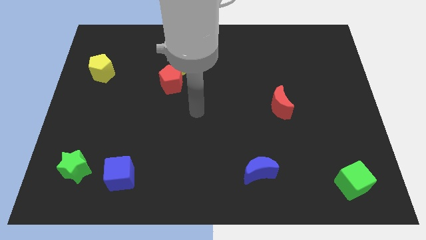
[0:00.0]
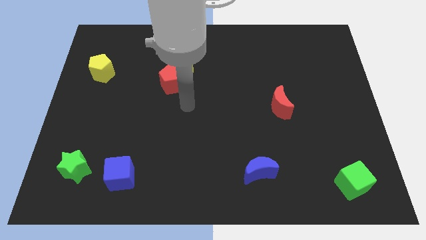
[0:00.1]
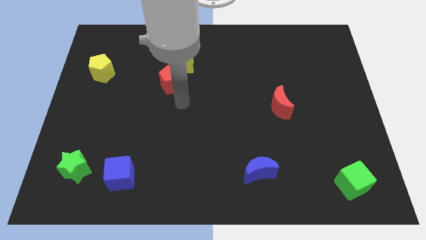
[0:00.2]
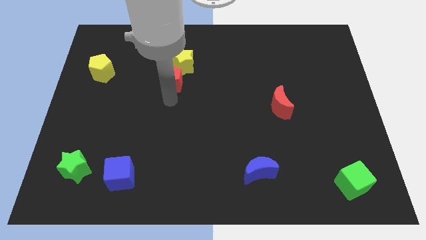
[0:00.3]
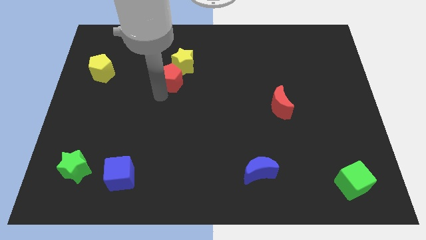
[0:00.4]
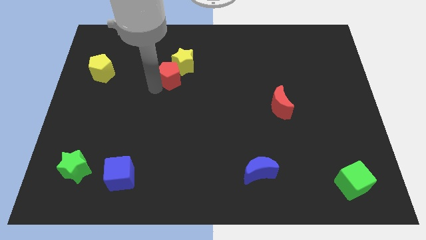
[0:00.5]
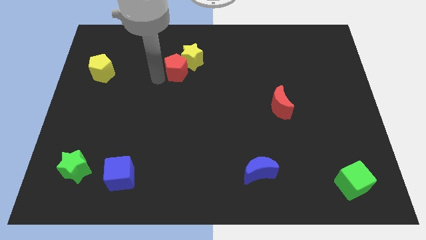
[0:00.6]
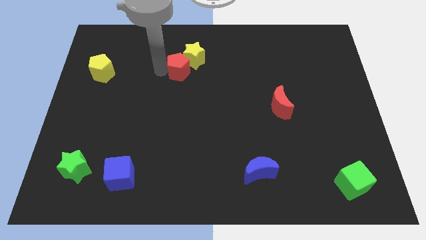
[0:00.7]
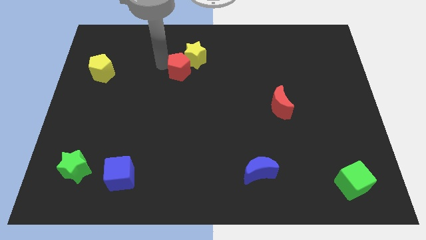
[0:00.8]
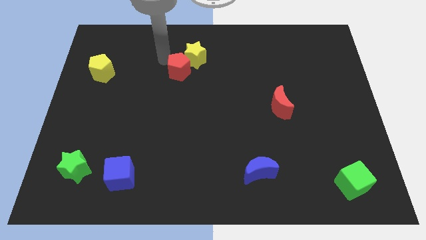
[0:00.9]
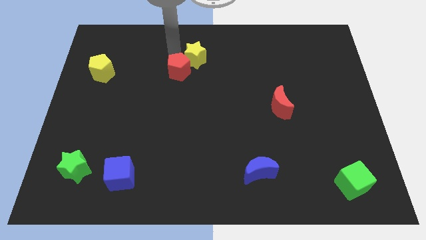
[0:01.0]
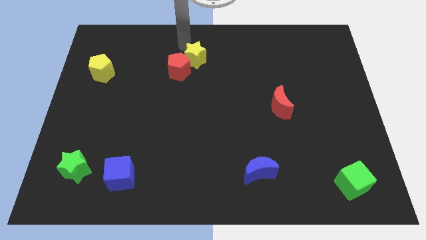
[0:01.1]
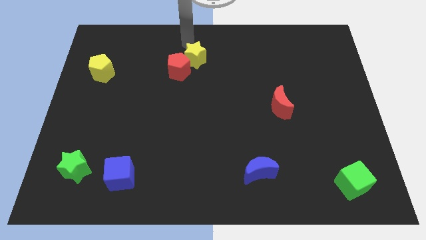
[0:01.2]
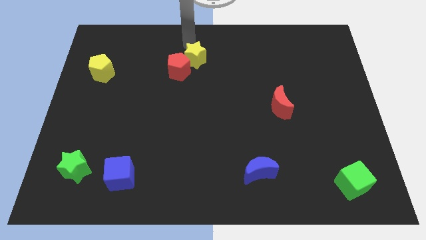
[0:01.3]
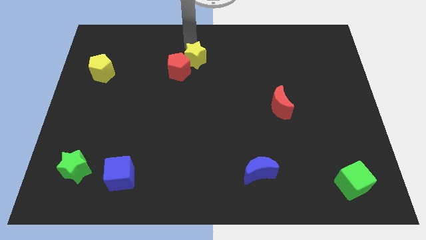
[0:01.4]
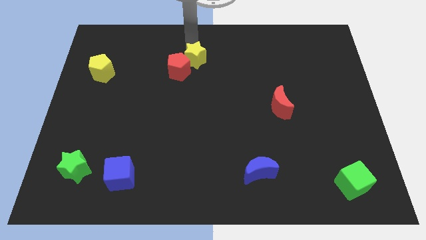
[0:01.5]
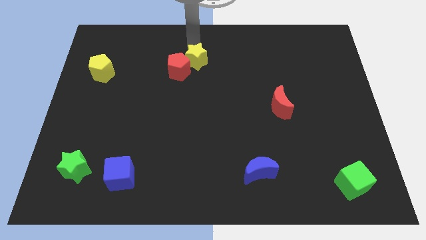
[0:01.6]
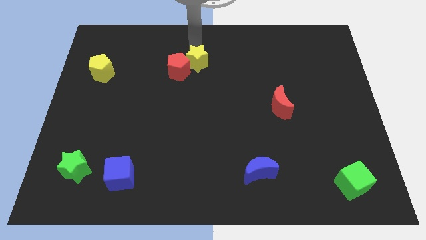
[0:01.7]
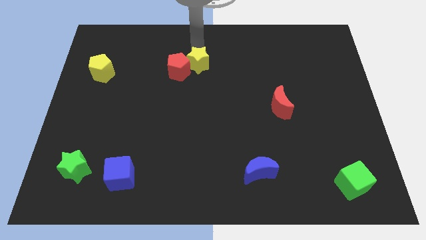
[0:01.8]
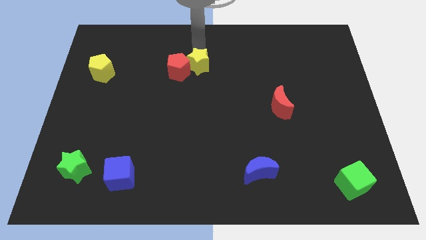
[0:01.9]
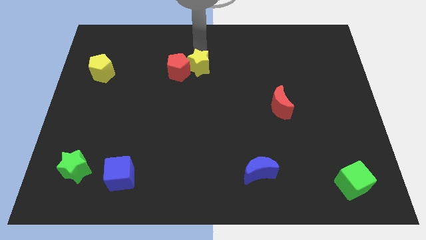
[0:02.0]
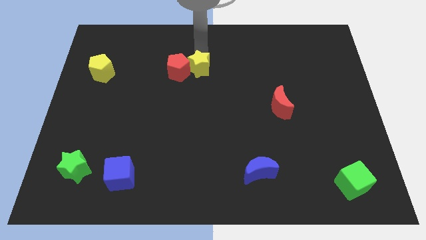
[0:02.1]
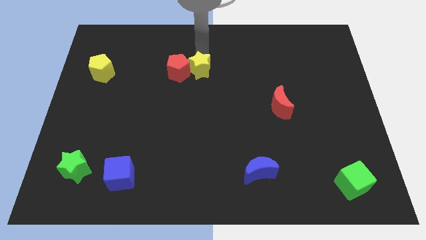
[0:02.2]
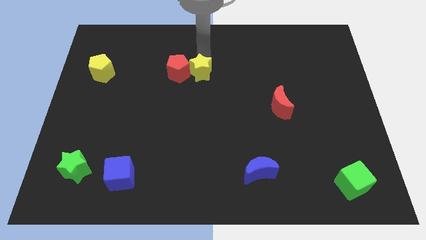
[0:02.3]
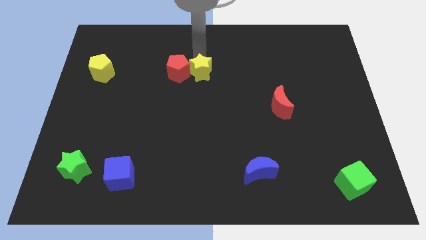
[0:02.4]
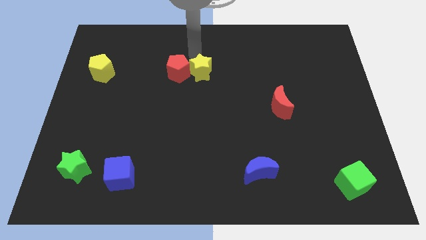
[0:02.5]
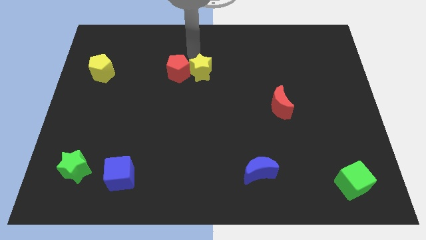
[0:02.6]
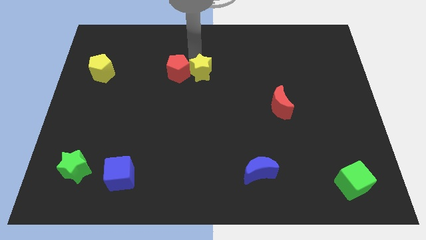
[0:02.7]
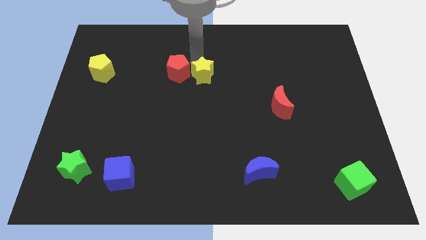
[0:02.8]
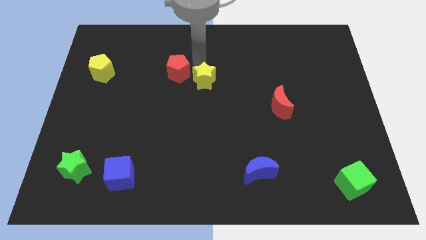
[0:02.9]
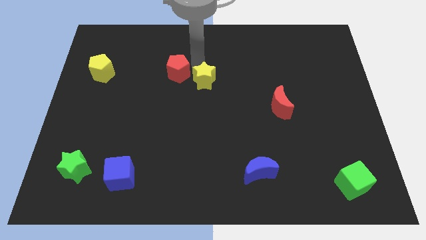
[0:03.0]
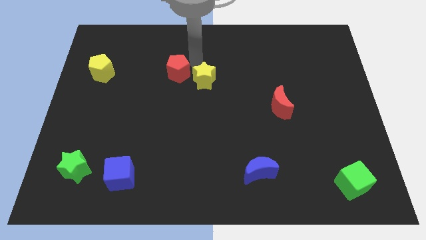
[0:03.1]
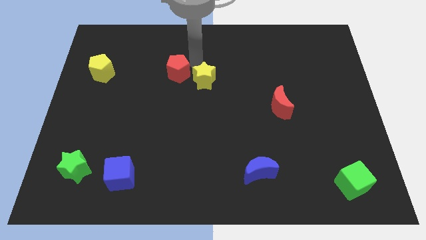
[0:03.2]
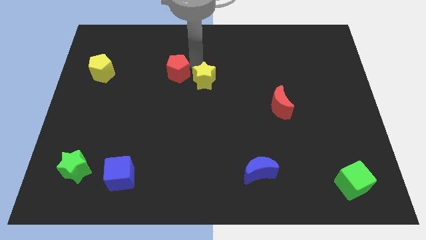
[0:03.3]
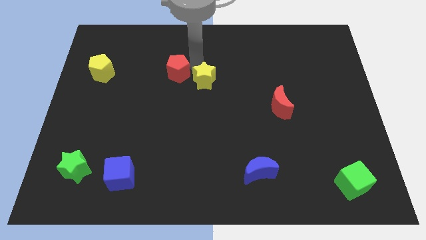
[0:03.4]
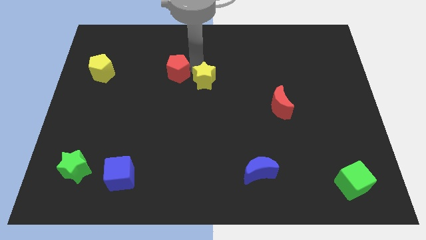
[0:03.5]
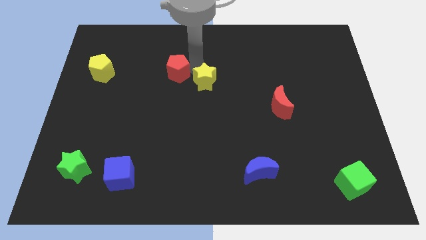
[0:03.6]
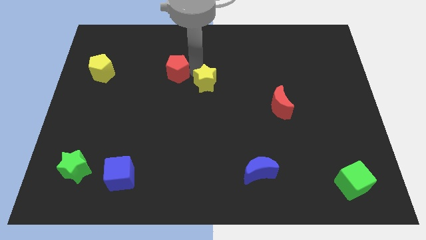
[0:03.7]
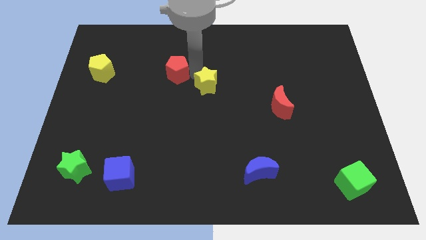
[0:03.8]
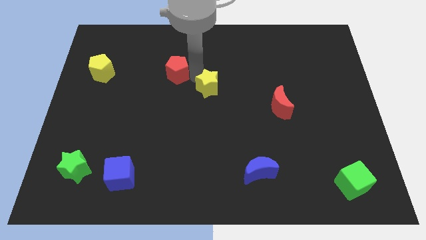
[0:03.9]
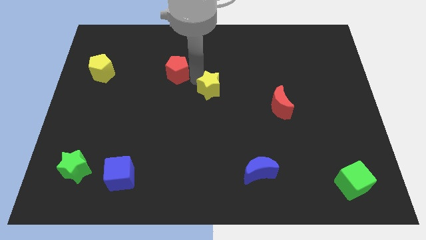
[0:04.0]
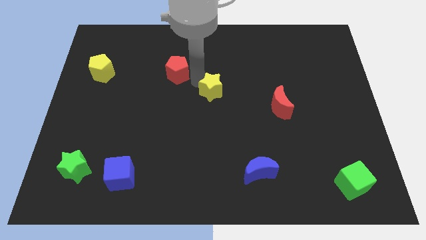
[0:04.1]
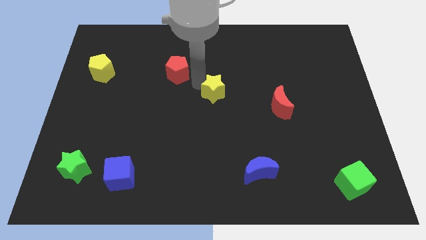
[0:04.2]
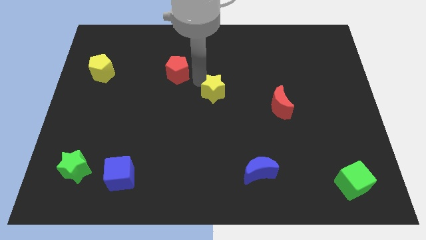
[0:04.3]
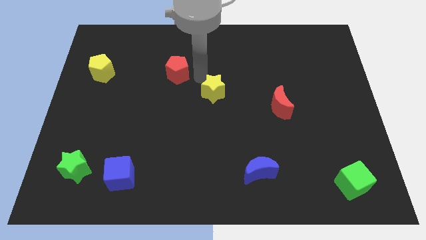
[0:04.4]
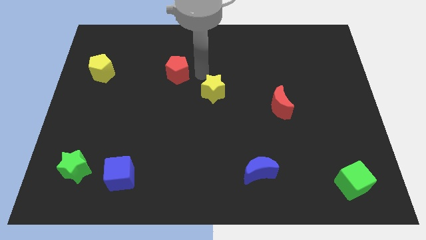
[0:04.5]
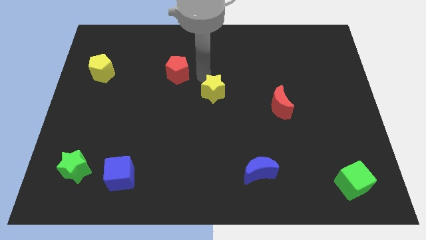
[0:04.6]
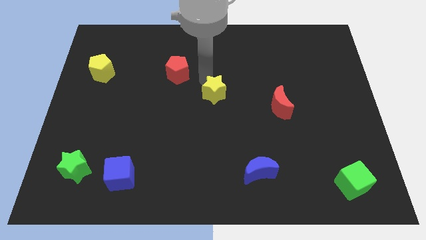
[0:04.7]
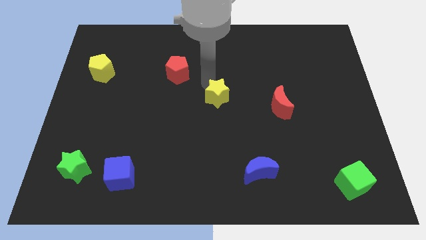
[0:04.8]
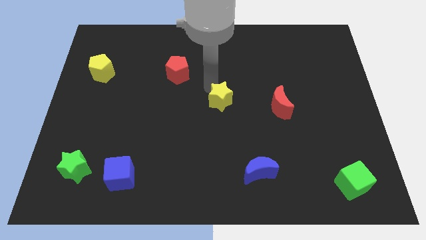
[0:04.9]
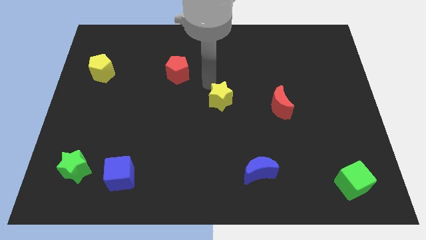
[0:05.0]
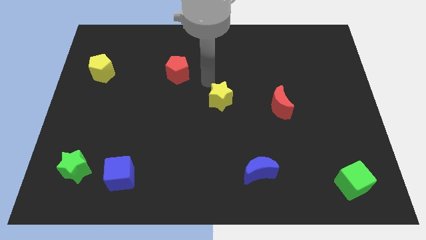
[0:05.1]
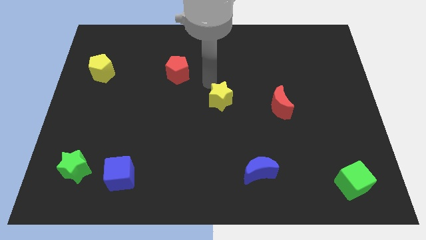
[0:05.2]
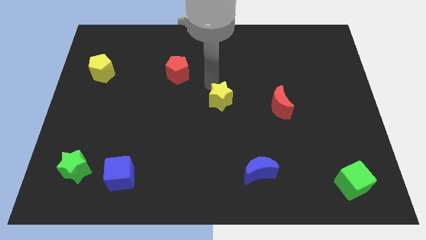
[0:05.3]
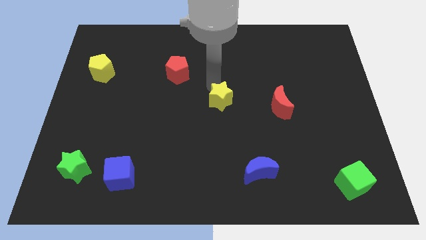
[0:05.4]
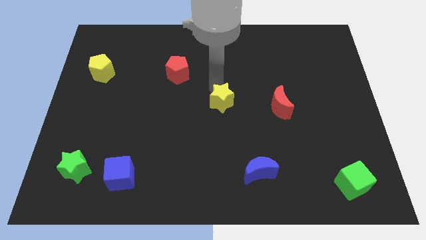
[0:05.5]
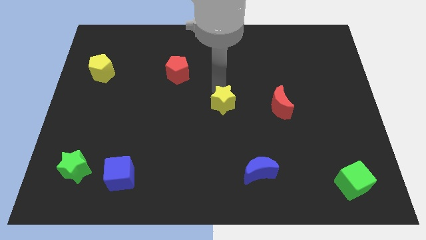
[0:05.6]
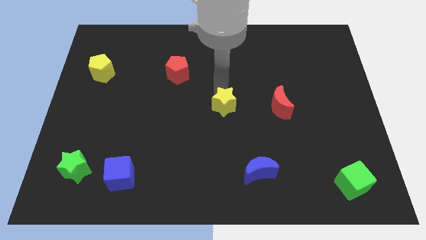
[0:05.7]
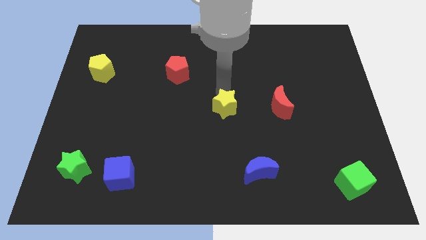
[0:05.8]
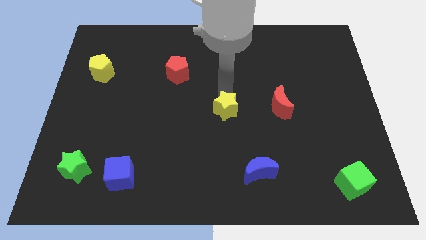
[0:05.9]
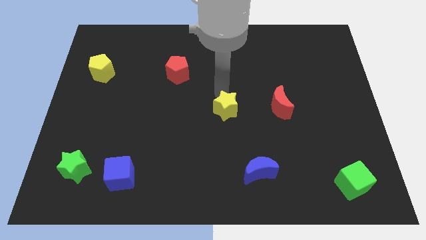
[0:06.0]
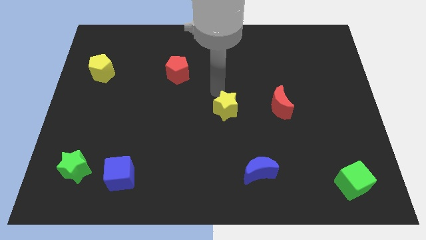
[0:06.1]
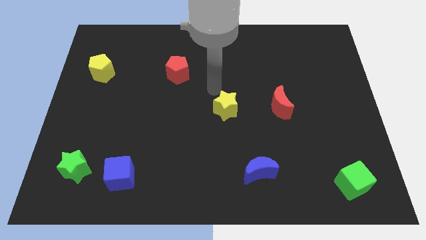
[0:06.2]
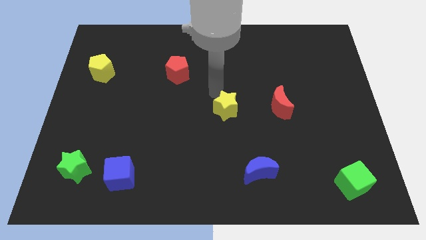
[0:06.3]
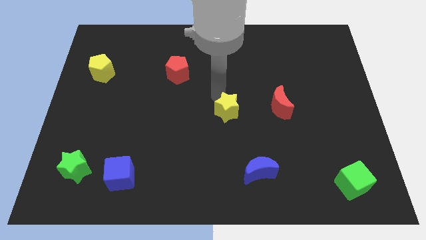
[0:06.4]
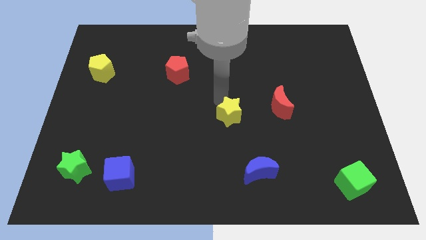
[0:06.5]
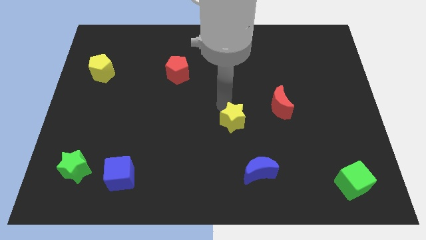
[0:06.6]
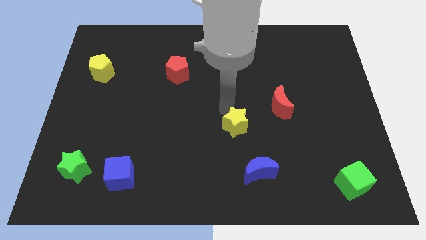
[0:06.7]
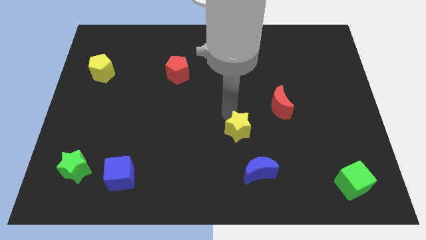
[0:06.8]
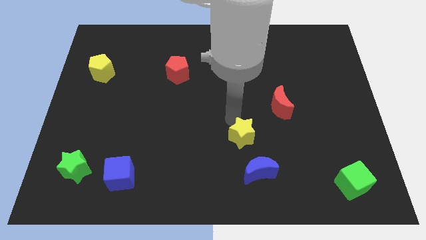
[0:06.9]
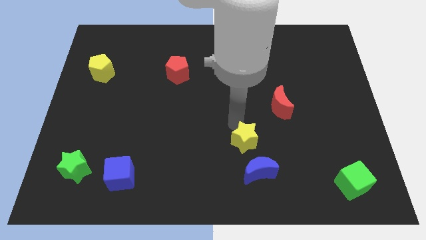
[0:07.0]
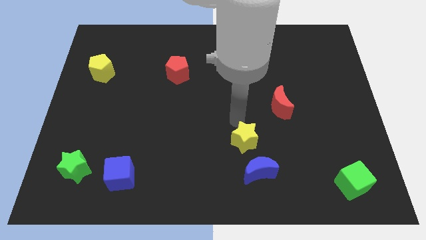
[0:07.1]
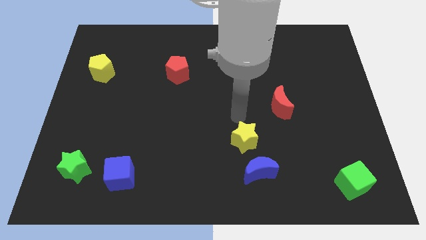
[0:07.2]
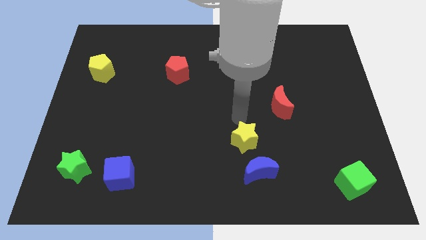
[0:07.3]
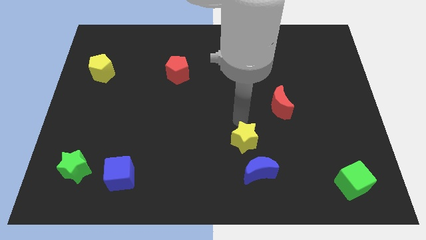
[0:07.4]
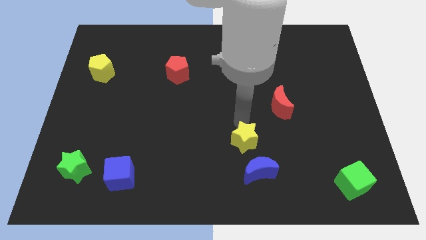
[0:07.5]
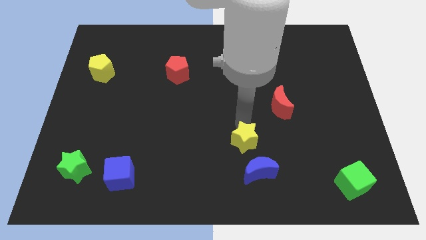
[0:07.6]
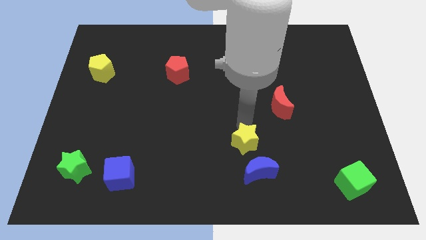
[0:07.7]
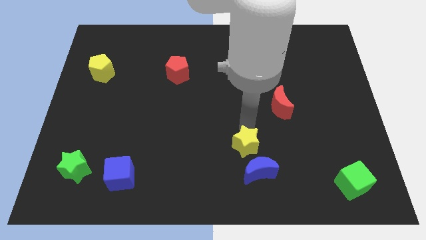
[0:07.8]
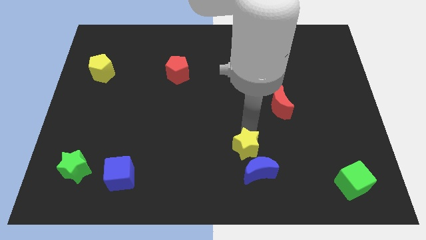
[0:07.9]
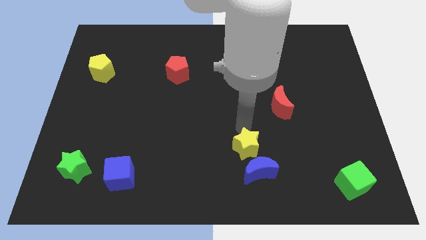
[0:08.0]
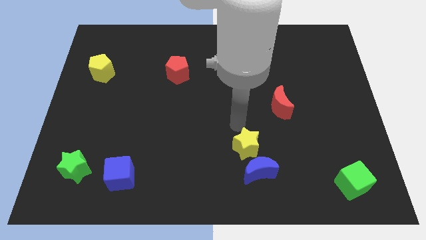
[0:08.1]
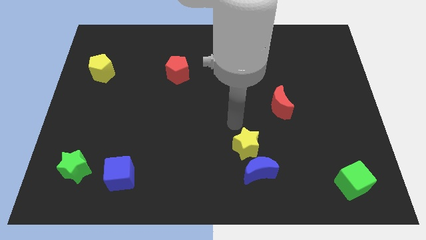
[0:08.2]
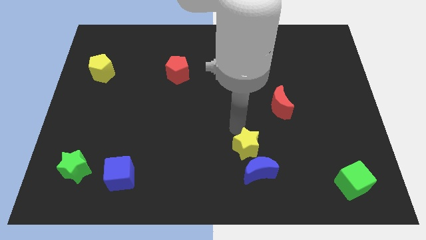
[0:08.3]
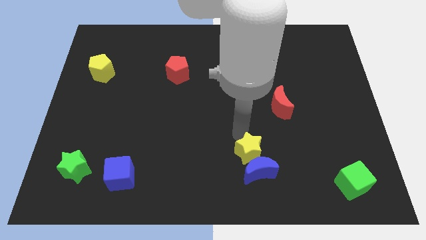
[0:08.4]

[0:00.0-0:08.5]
move the yellow star to the blue moon
